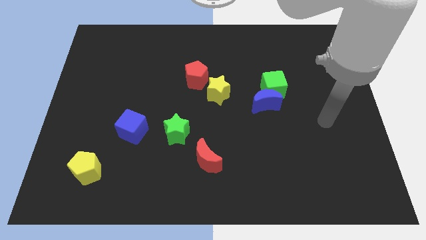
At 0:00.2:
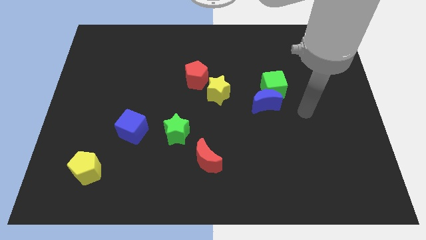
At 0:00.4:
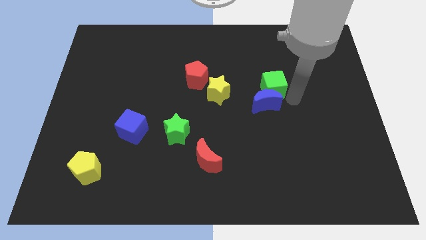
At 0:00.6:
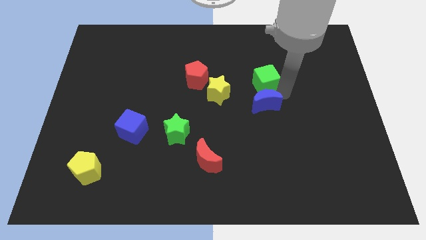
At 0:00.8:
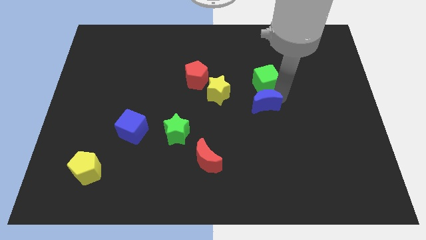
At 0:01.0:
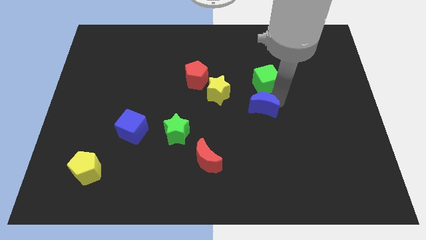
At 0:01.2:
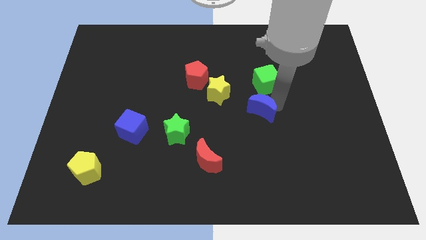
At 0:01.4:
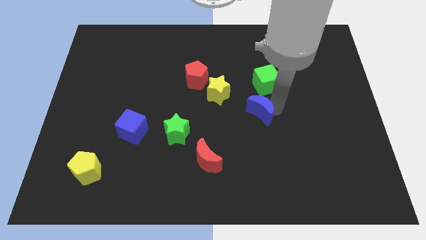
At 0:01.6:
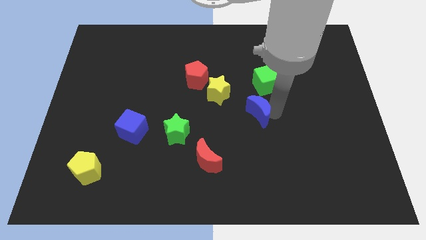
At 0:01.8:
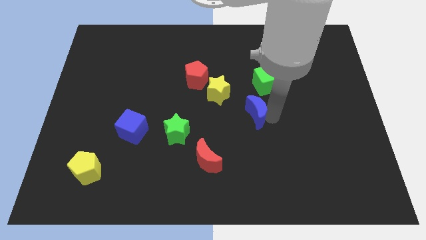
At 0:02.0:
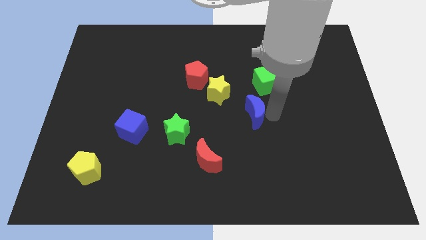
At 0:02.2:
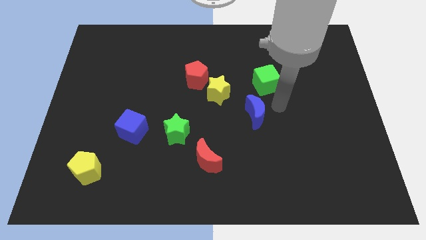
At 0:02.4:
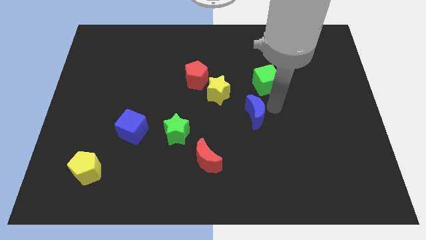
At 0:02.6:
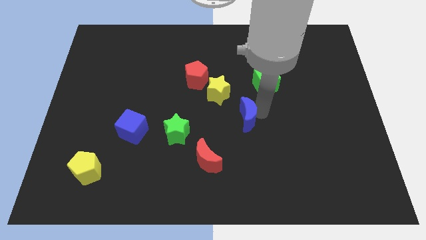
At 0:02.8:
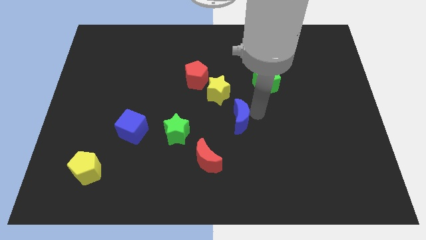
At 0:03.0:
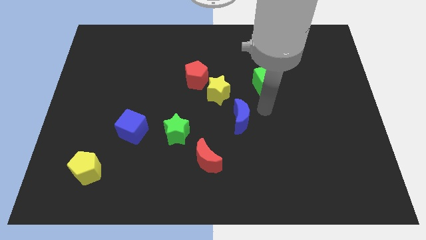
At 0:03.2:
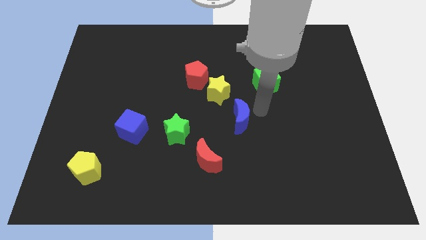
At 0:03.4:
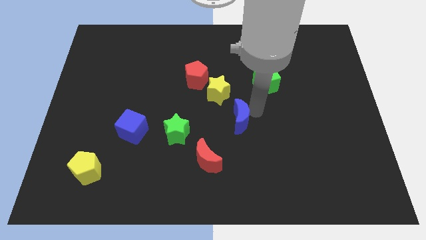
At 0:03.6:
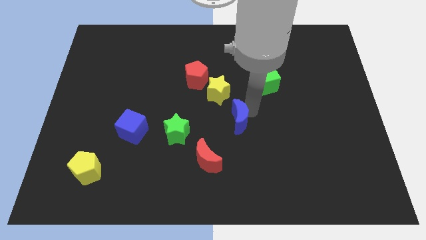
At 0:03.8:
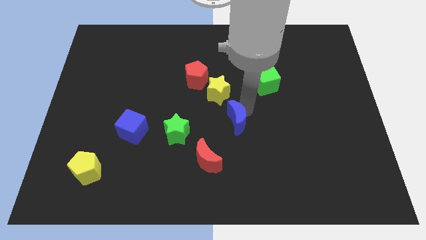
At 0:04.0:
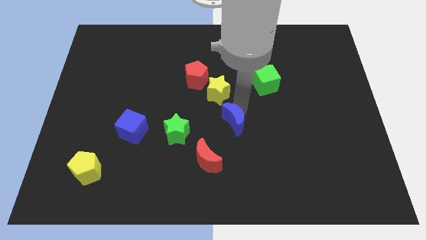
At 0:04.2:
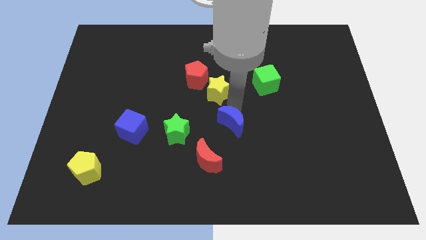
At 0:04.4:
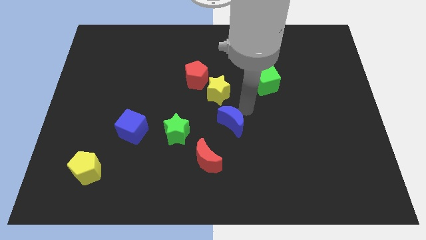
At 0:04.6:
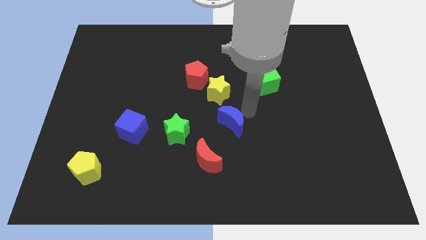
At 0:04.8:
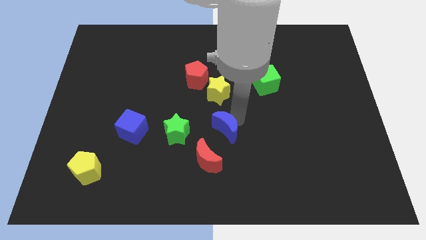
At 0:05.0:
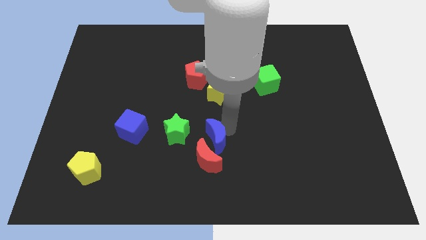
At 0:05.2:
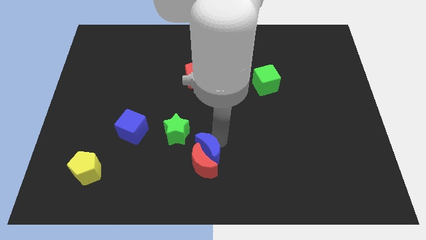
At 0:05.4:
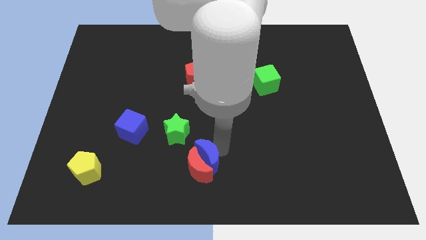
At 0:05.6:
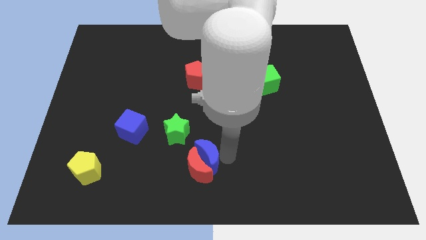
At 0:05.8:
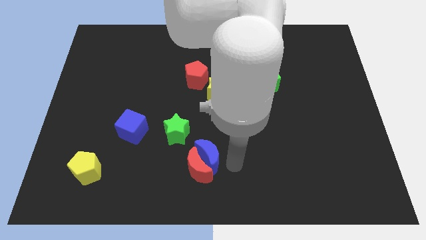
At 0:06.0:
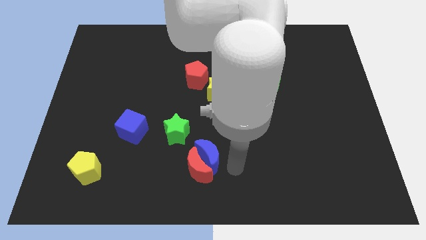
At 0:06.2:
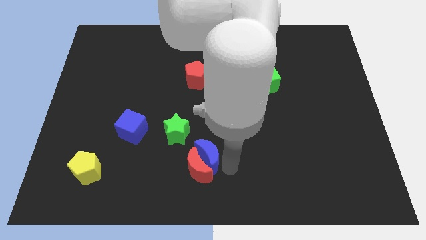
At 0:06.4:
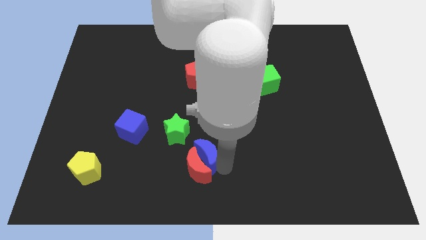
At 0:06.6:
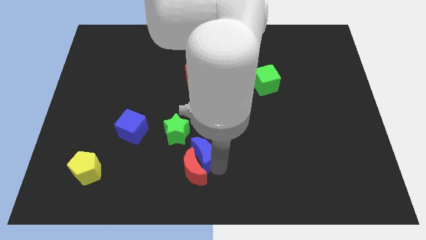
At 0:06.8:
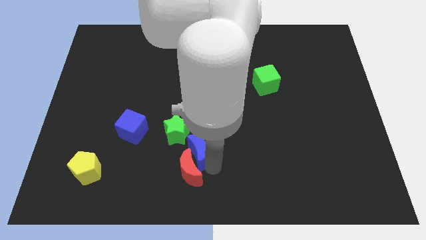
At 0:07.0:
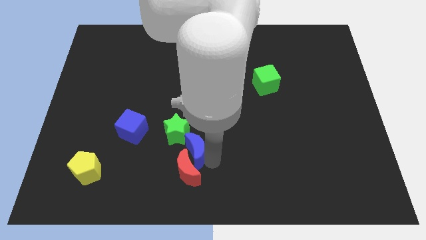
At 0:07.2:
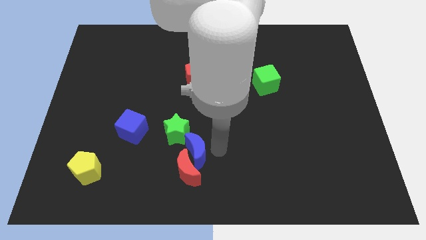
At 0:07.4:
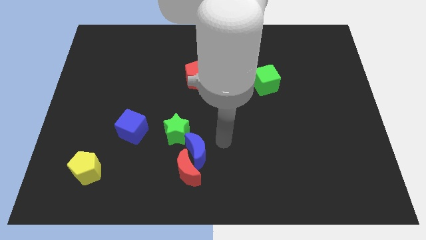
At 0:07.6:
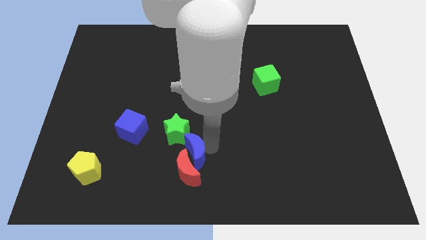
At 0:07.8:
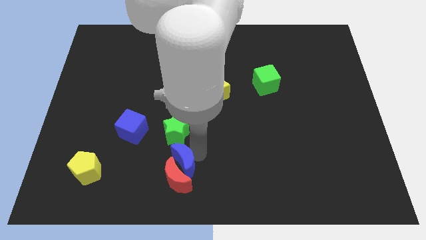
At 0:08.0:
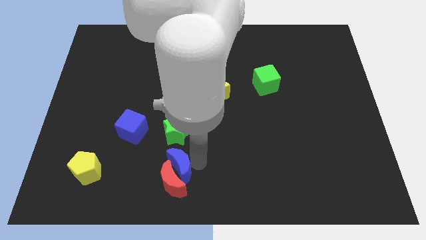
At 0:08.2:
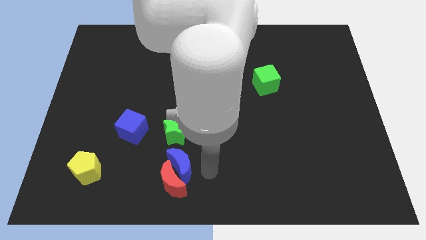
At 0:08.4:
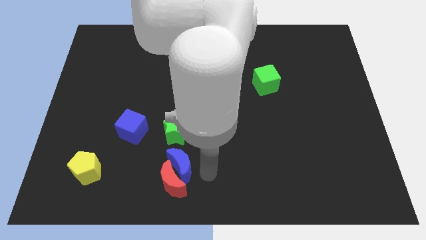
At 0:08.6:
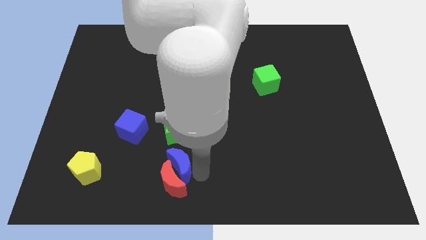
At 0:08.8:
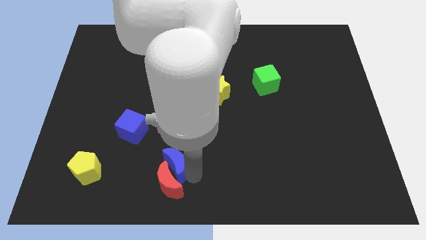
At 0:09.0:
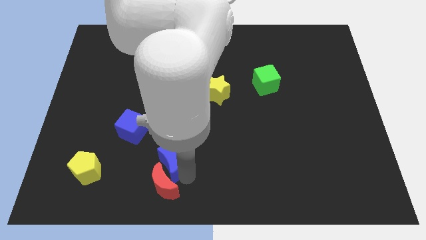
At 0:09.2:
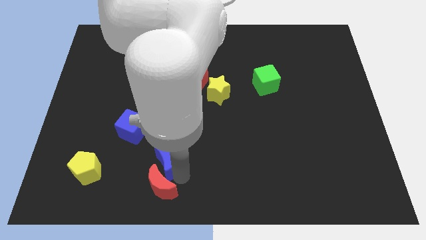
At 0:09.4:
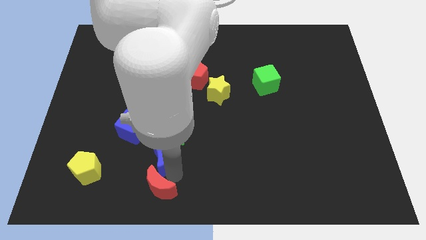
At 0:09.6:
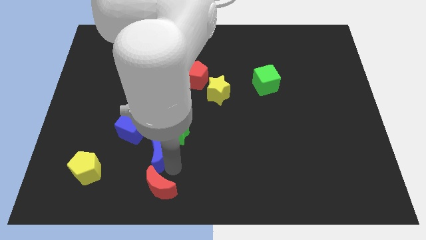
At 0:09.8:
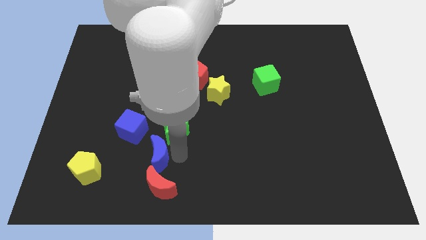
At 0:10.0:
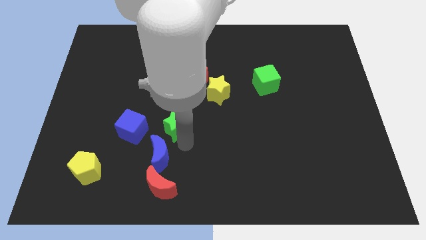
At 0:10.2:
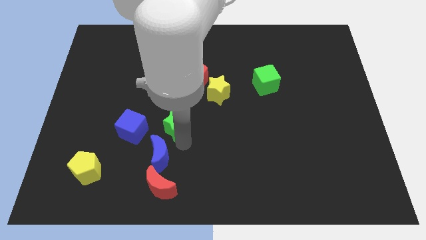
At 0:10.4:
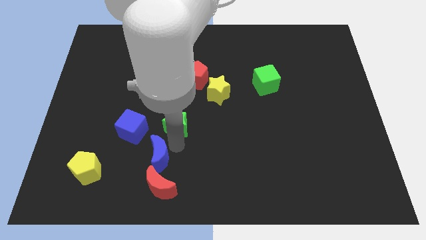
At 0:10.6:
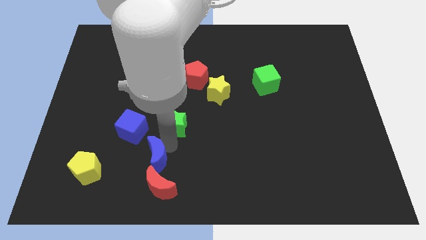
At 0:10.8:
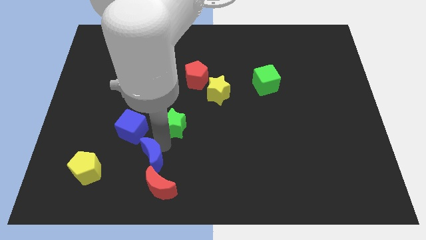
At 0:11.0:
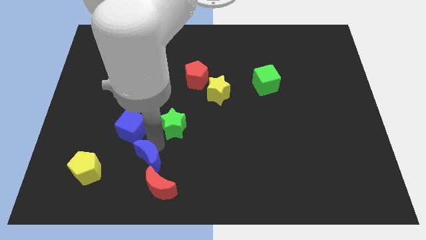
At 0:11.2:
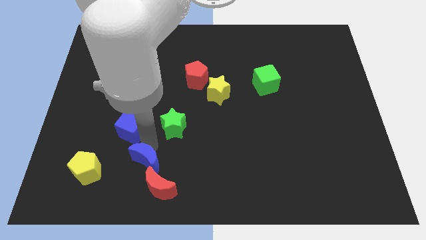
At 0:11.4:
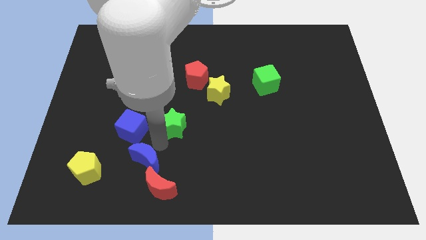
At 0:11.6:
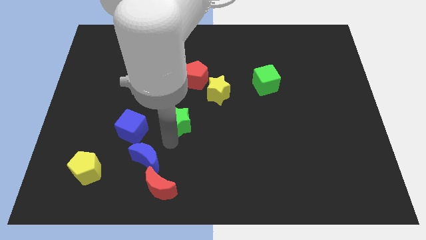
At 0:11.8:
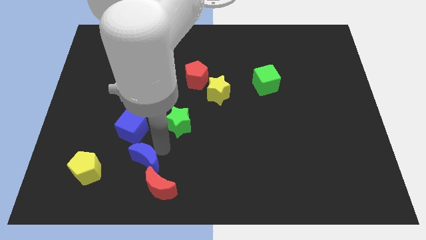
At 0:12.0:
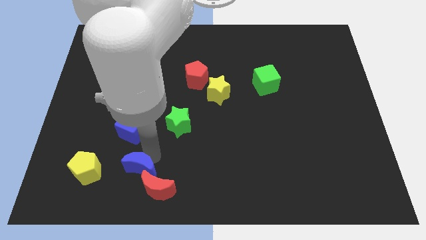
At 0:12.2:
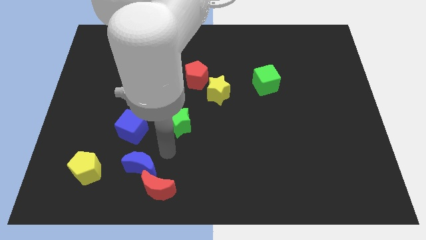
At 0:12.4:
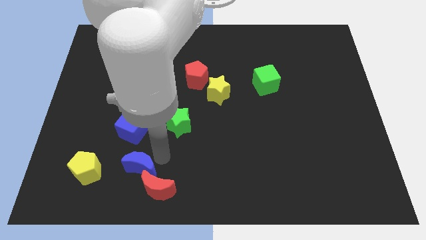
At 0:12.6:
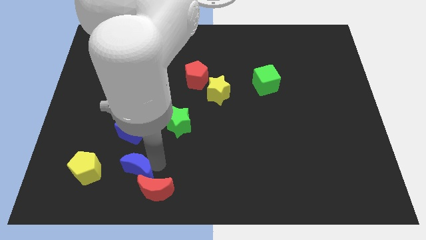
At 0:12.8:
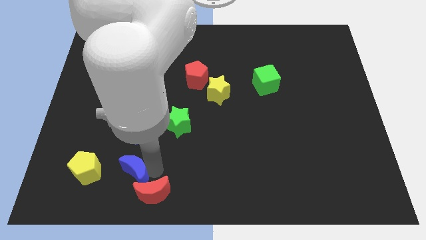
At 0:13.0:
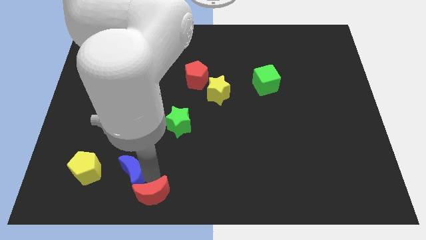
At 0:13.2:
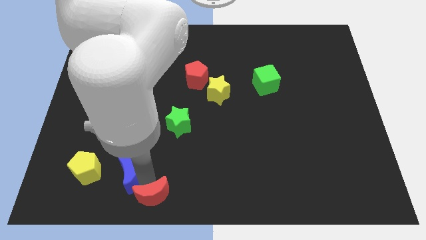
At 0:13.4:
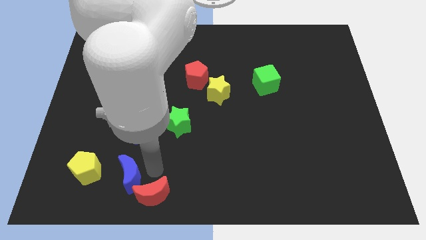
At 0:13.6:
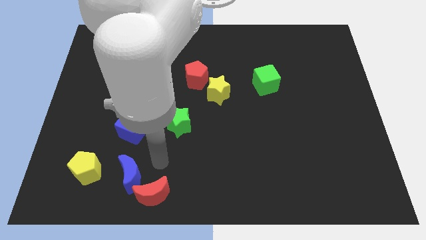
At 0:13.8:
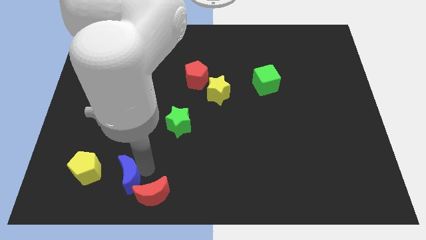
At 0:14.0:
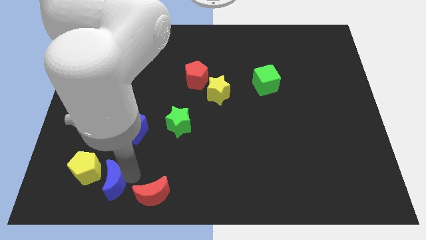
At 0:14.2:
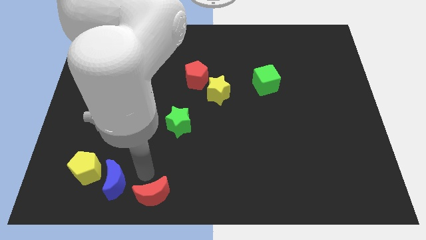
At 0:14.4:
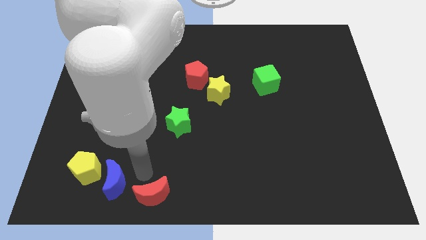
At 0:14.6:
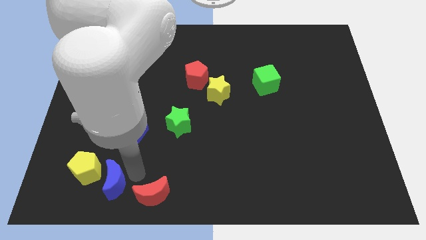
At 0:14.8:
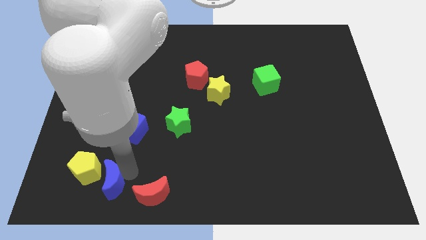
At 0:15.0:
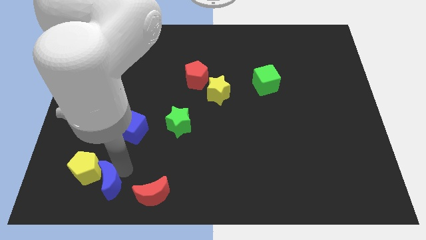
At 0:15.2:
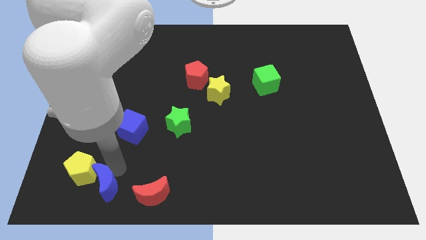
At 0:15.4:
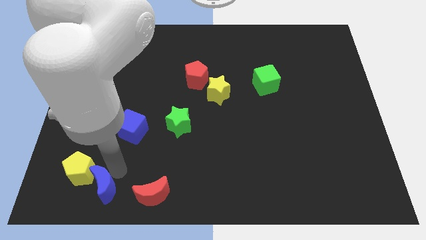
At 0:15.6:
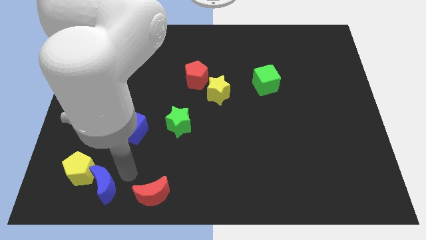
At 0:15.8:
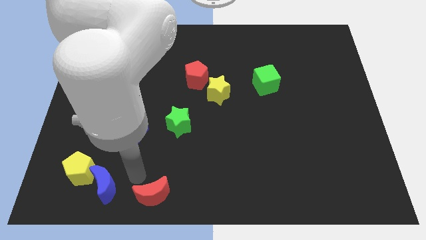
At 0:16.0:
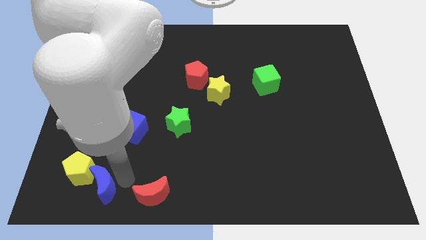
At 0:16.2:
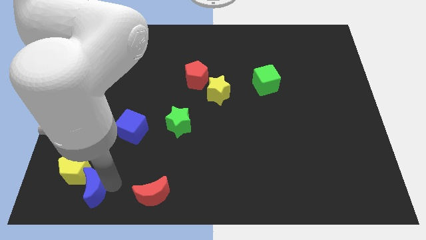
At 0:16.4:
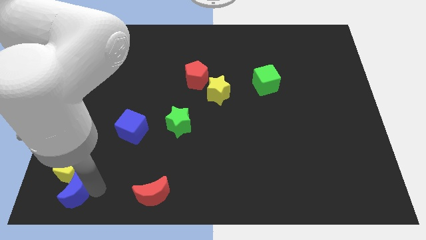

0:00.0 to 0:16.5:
slide the blue moon to the bottom left
